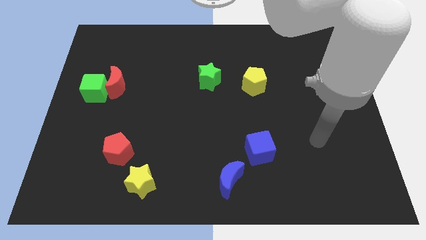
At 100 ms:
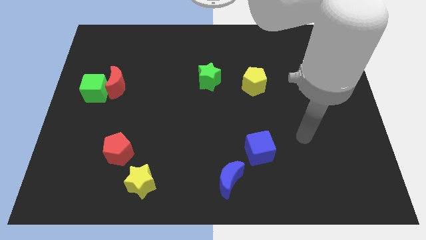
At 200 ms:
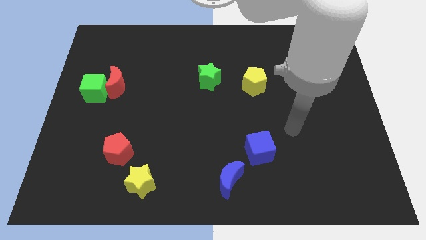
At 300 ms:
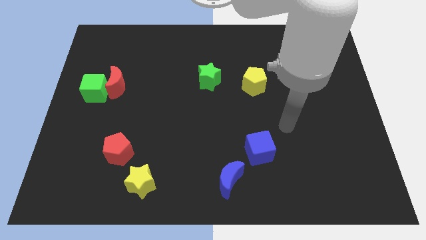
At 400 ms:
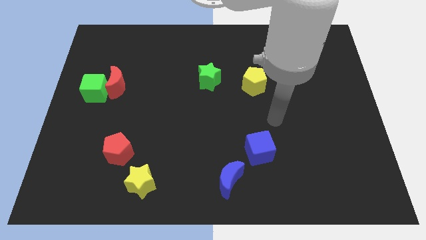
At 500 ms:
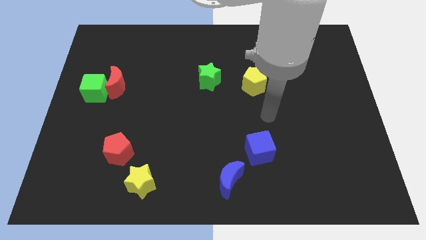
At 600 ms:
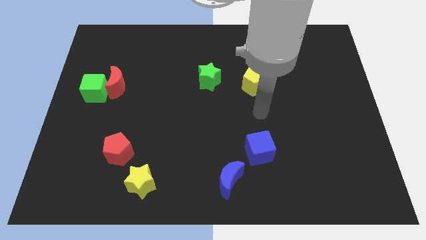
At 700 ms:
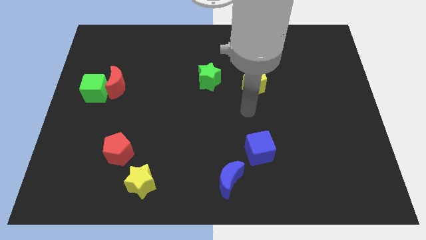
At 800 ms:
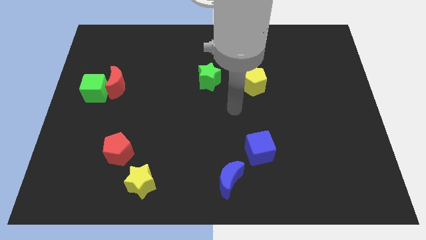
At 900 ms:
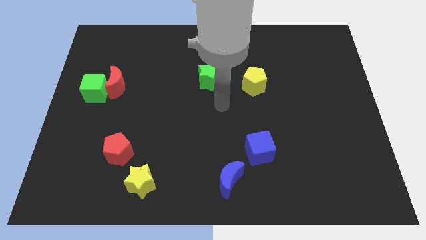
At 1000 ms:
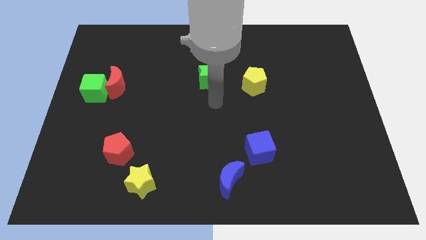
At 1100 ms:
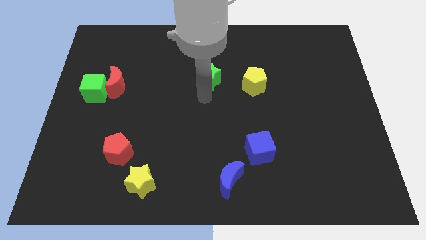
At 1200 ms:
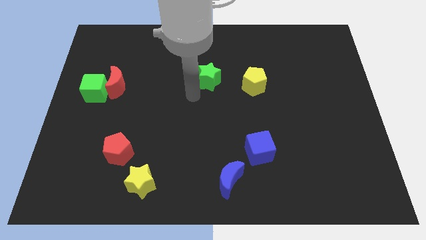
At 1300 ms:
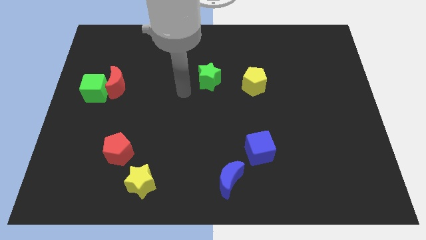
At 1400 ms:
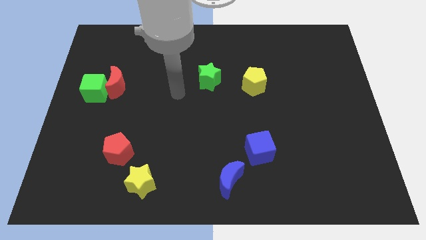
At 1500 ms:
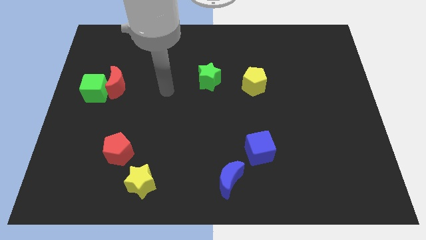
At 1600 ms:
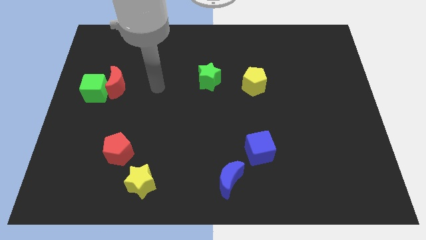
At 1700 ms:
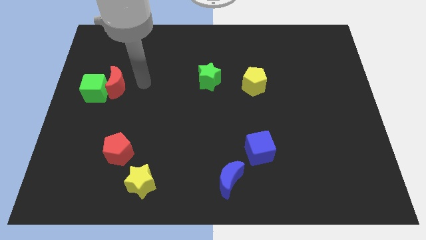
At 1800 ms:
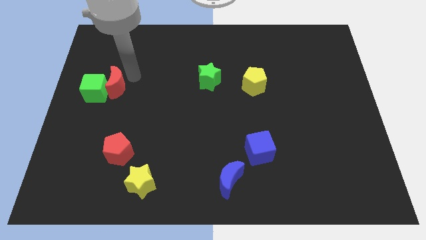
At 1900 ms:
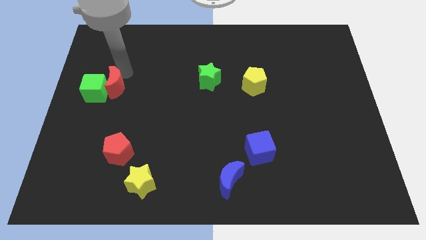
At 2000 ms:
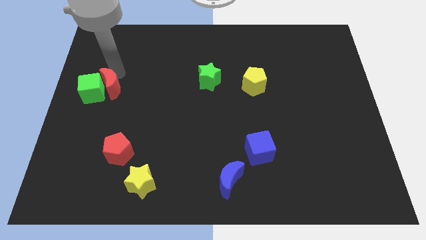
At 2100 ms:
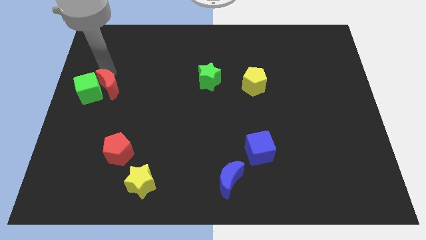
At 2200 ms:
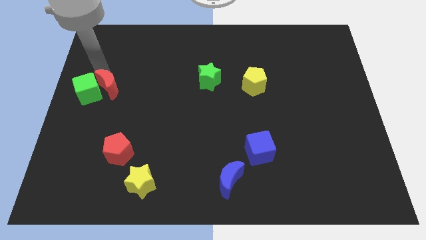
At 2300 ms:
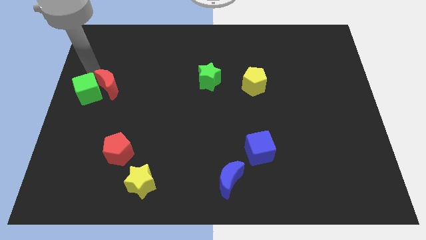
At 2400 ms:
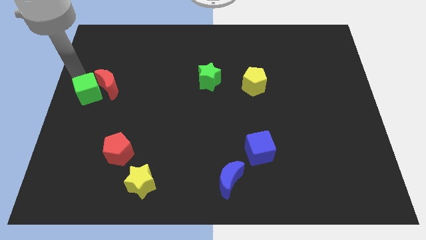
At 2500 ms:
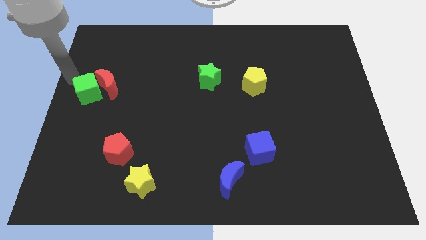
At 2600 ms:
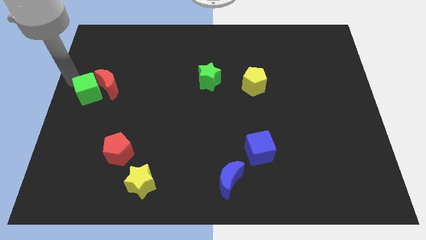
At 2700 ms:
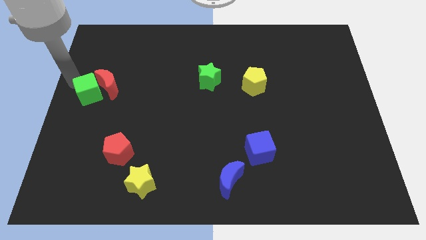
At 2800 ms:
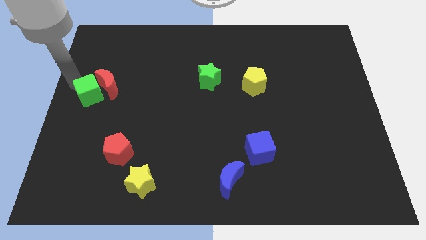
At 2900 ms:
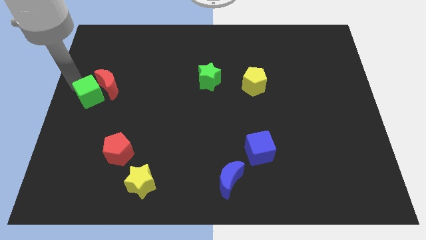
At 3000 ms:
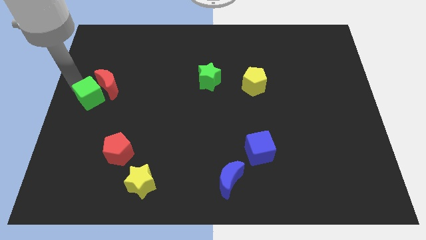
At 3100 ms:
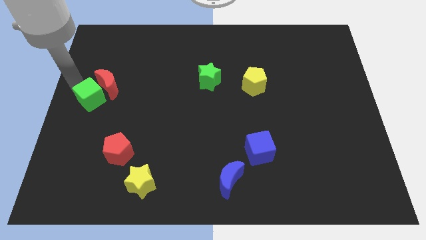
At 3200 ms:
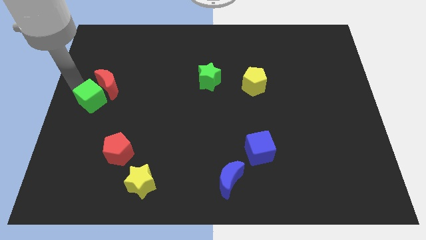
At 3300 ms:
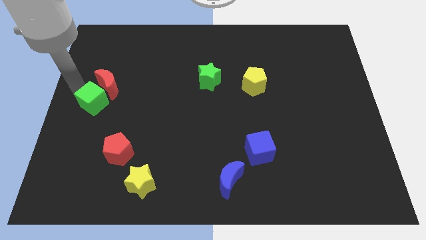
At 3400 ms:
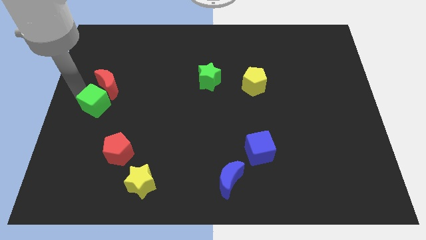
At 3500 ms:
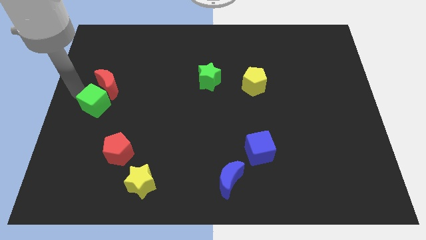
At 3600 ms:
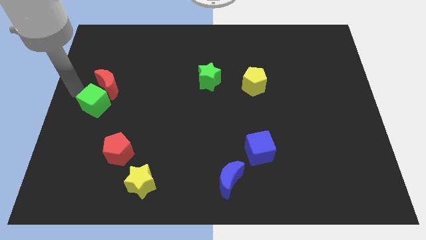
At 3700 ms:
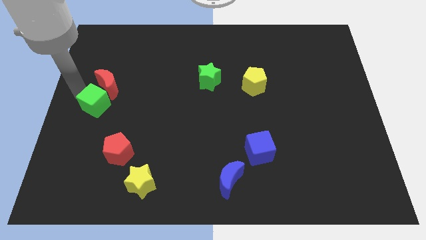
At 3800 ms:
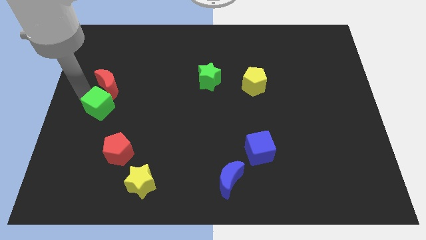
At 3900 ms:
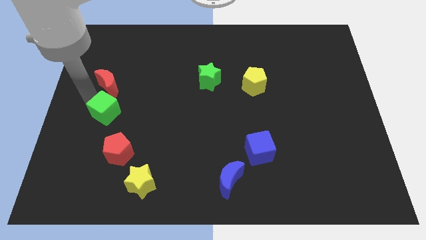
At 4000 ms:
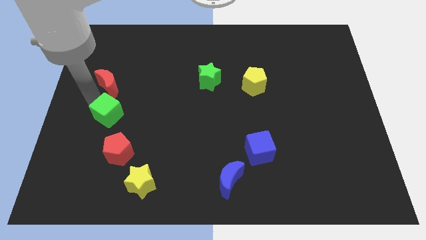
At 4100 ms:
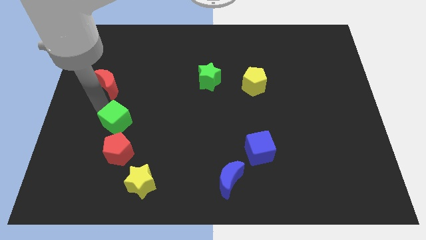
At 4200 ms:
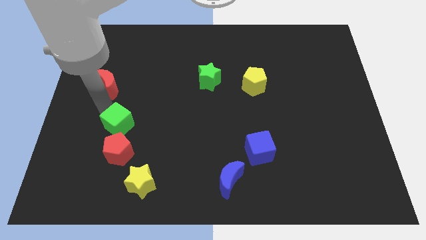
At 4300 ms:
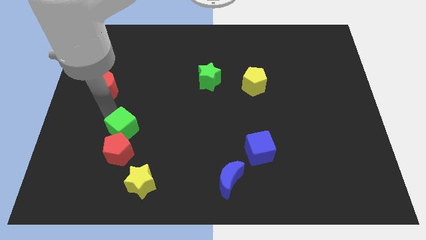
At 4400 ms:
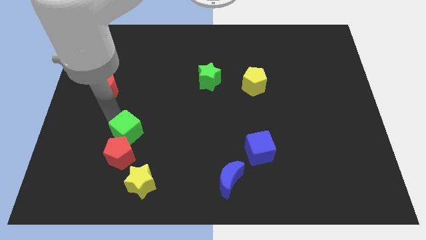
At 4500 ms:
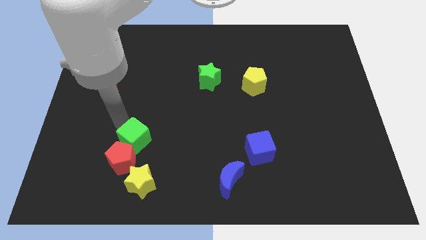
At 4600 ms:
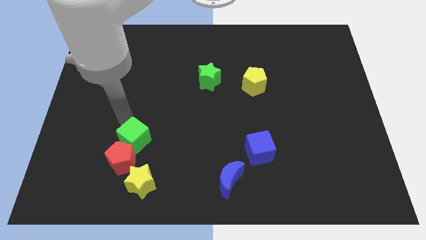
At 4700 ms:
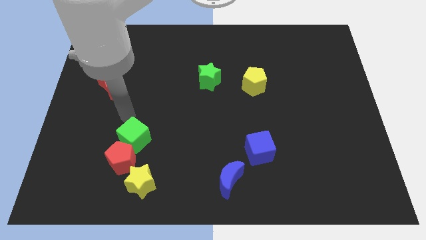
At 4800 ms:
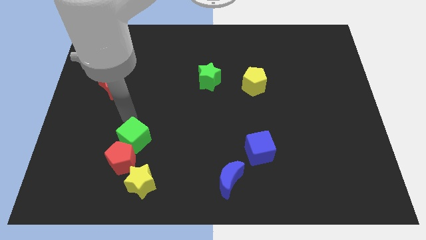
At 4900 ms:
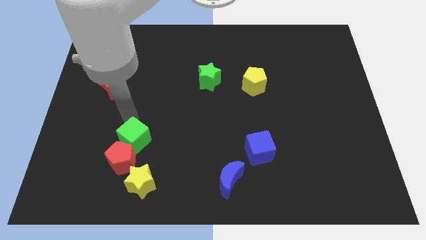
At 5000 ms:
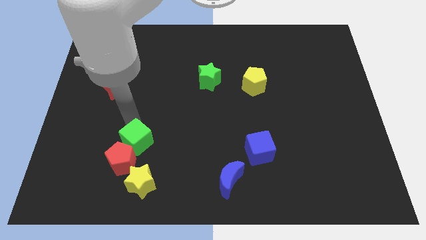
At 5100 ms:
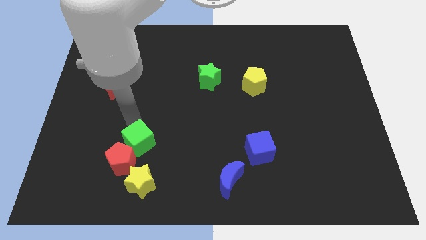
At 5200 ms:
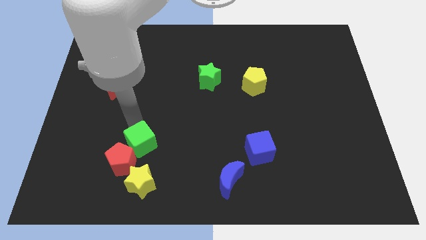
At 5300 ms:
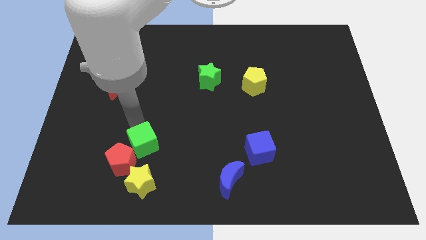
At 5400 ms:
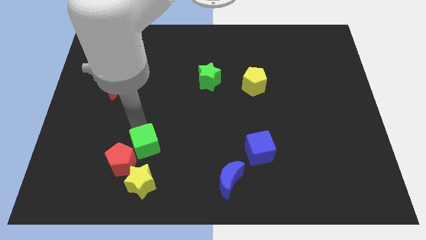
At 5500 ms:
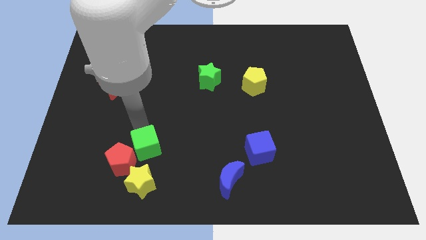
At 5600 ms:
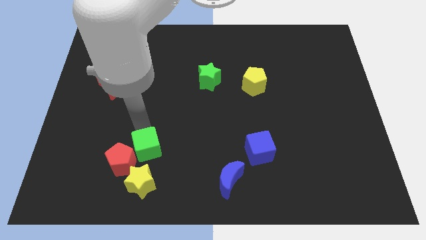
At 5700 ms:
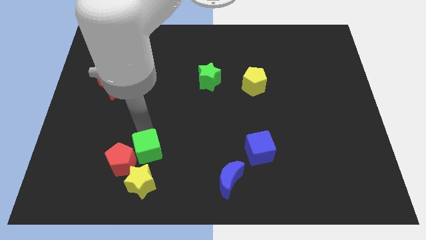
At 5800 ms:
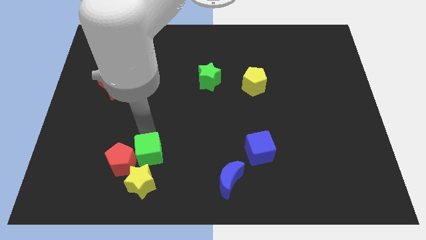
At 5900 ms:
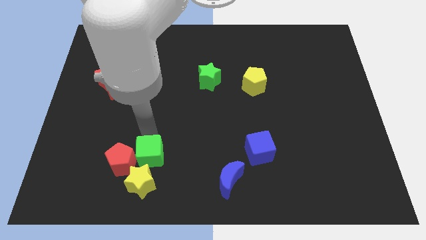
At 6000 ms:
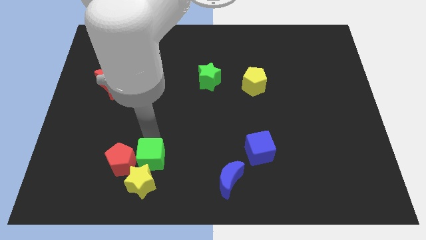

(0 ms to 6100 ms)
move the green cube close to the yellow star

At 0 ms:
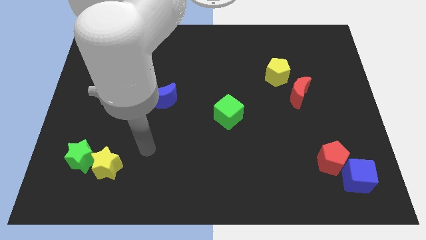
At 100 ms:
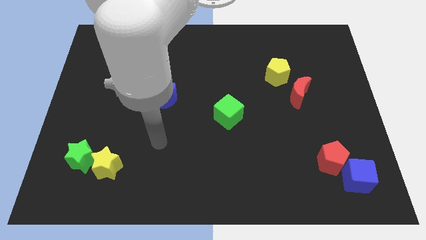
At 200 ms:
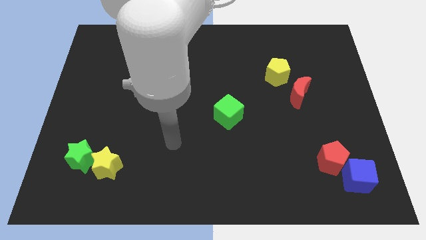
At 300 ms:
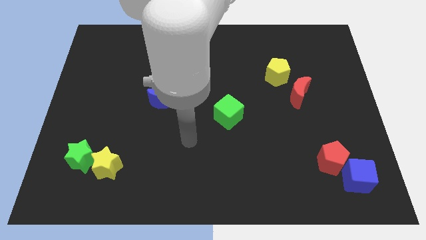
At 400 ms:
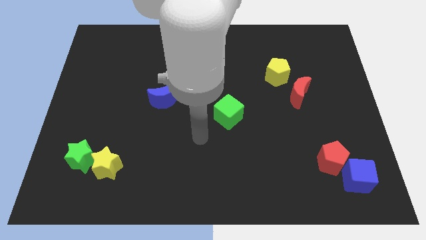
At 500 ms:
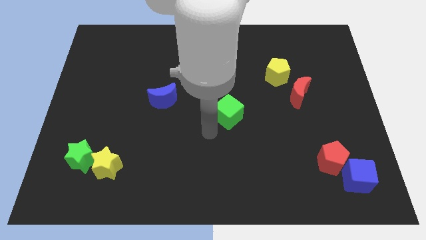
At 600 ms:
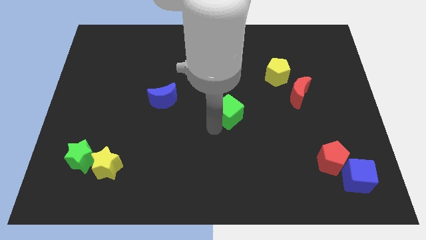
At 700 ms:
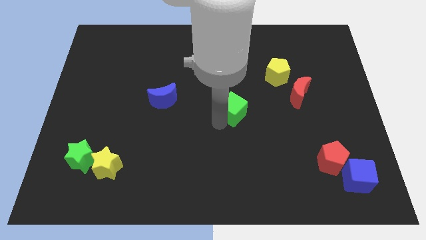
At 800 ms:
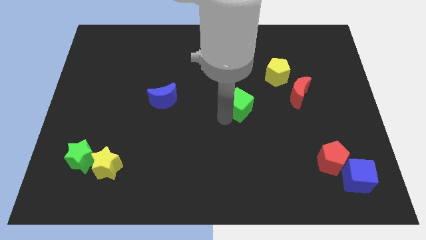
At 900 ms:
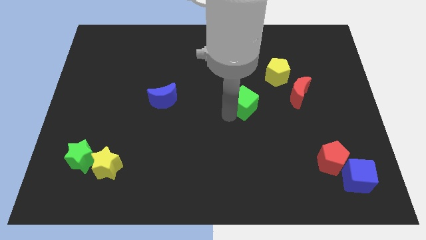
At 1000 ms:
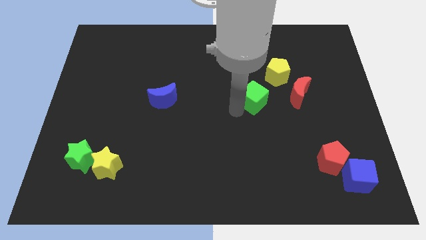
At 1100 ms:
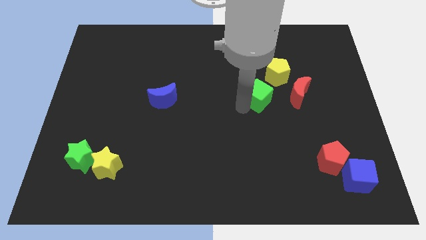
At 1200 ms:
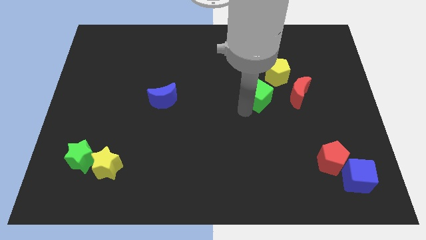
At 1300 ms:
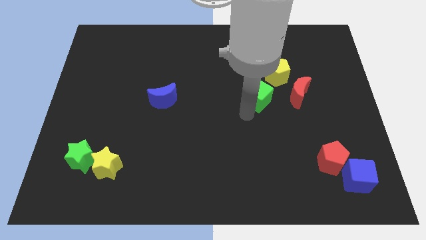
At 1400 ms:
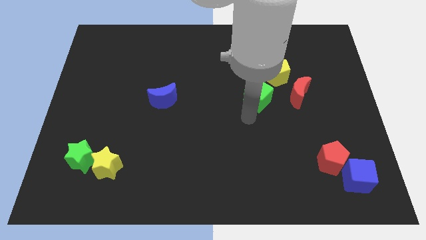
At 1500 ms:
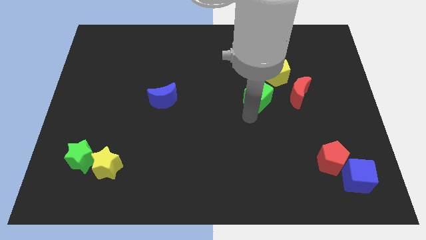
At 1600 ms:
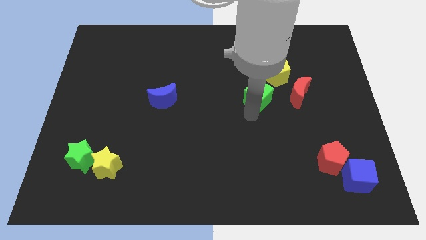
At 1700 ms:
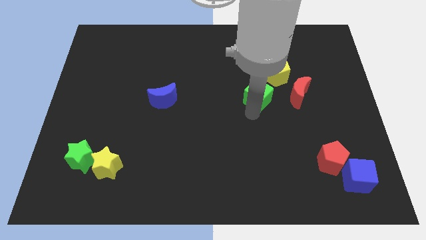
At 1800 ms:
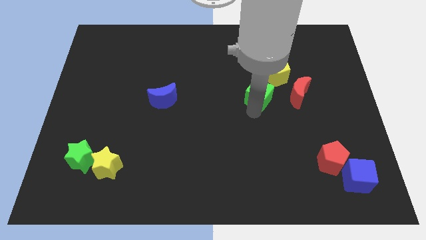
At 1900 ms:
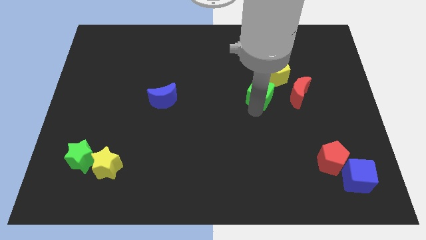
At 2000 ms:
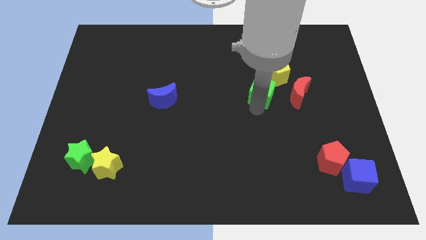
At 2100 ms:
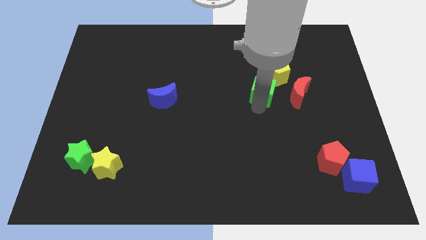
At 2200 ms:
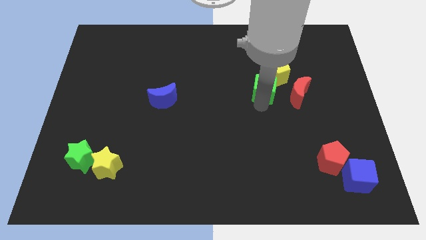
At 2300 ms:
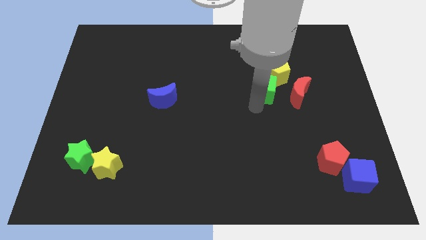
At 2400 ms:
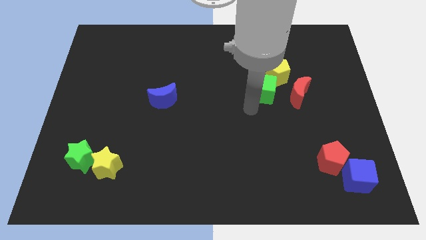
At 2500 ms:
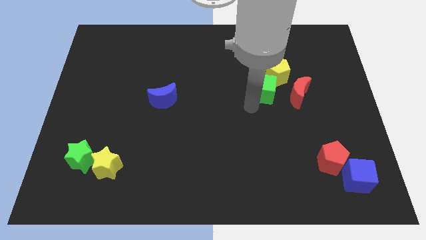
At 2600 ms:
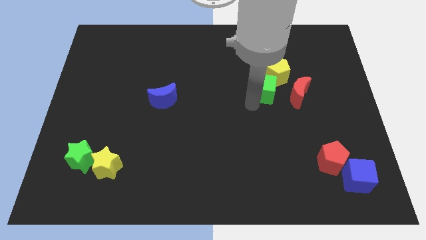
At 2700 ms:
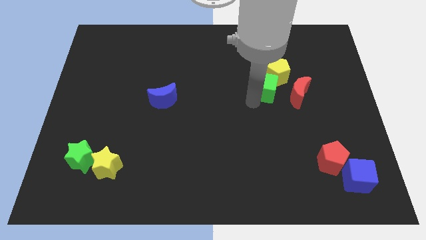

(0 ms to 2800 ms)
put the green cube close to the yellow pentagon
